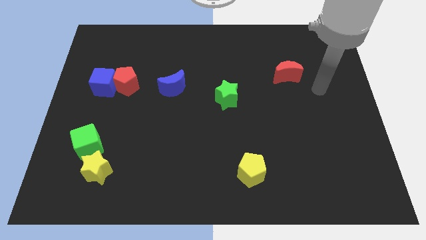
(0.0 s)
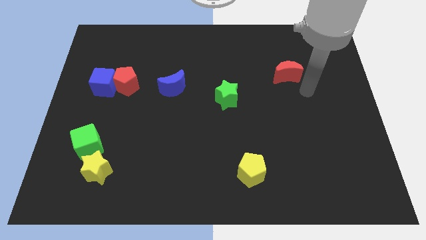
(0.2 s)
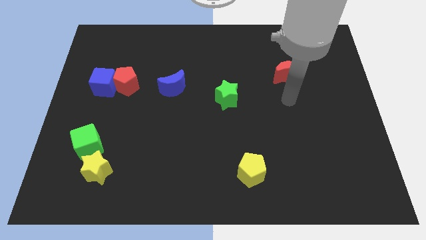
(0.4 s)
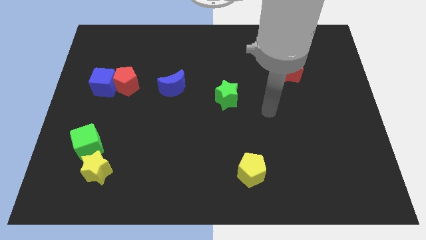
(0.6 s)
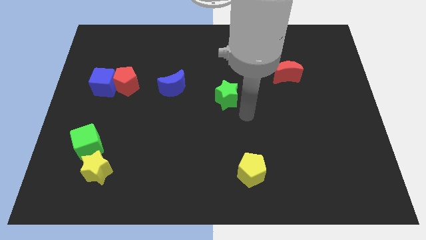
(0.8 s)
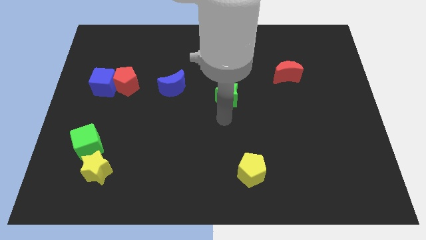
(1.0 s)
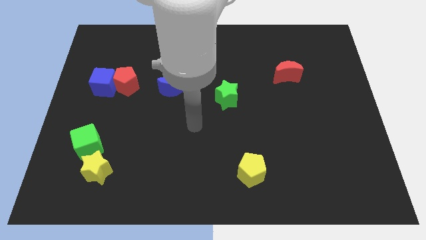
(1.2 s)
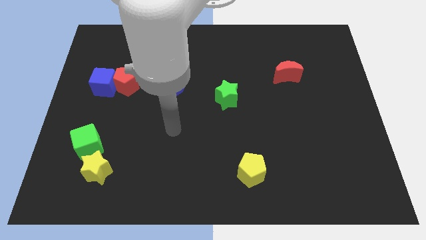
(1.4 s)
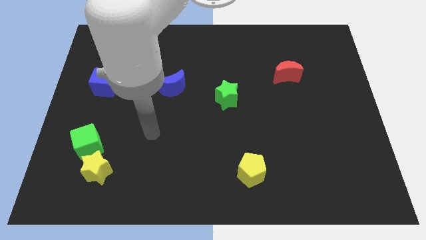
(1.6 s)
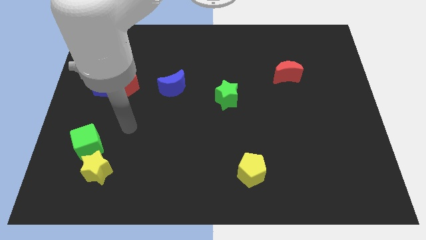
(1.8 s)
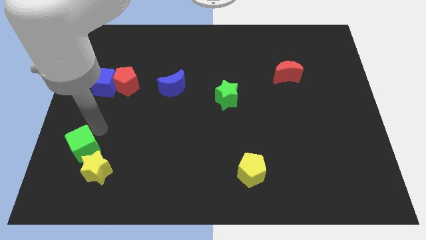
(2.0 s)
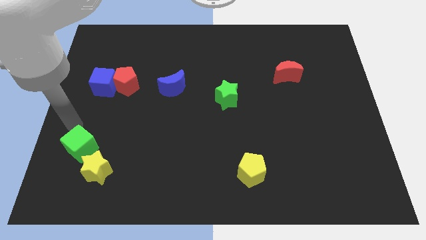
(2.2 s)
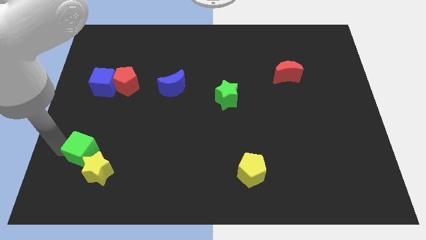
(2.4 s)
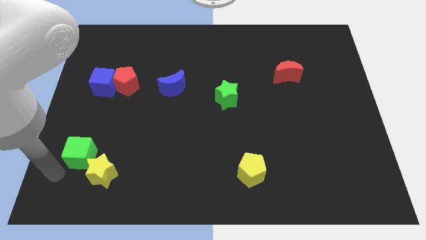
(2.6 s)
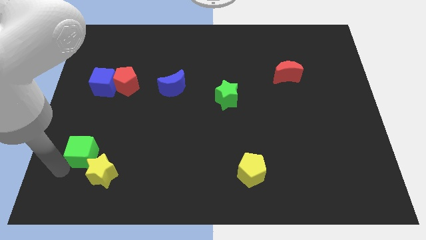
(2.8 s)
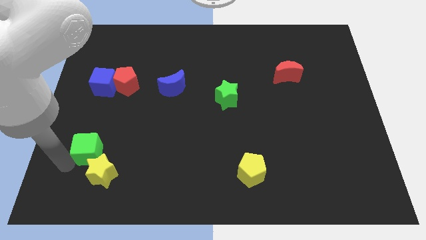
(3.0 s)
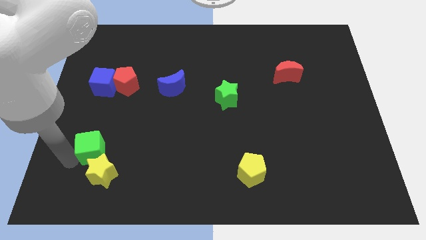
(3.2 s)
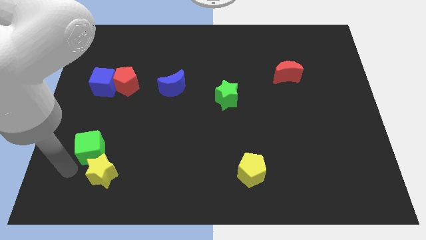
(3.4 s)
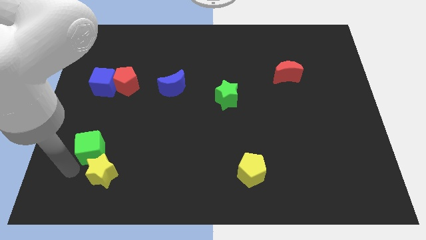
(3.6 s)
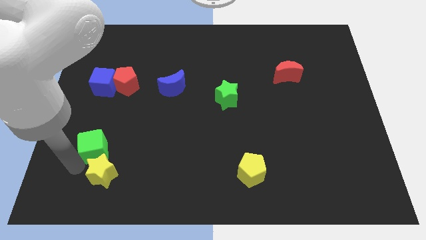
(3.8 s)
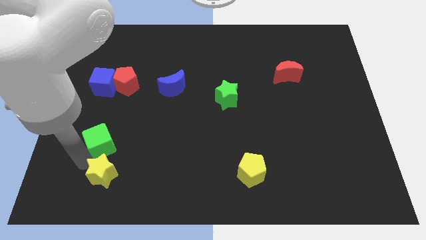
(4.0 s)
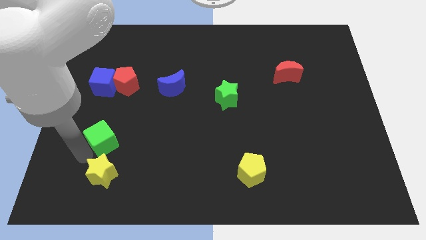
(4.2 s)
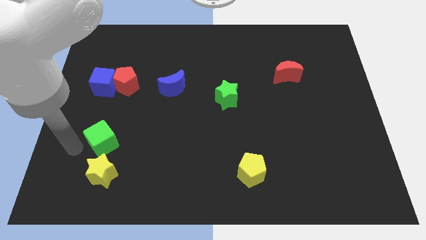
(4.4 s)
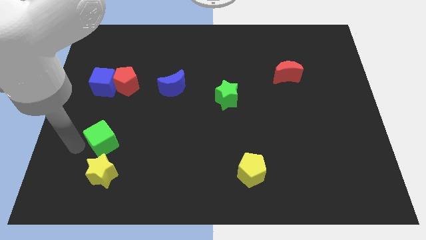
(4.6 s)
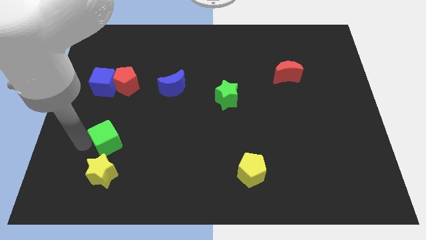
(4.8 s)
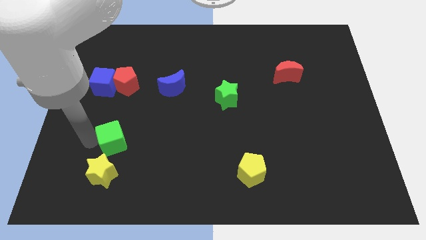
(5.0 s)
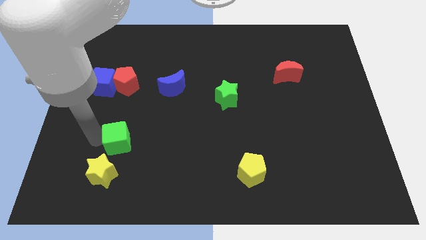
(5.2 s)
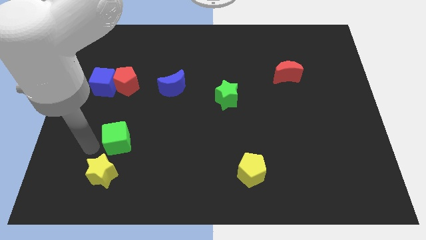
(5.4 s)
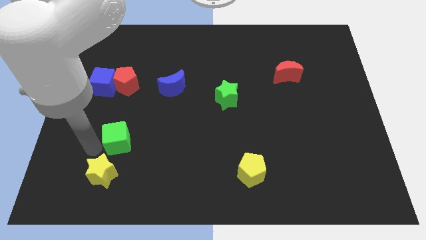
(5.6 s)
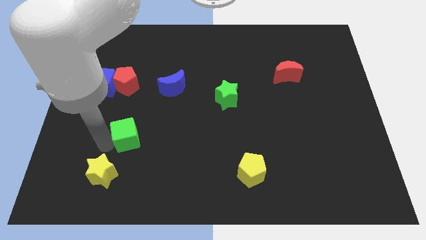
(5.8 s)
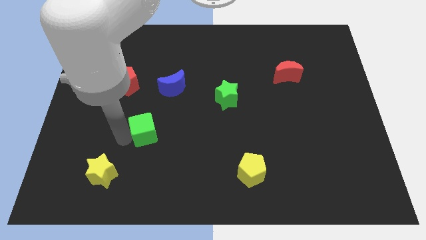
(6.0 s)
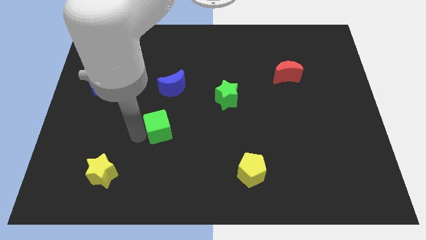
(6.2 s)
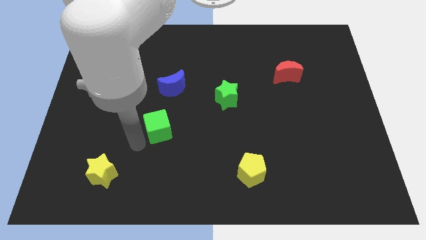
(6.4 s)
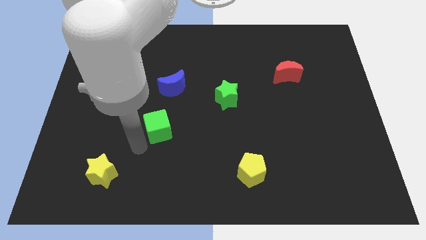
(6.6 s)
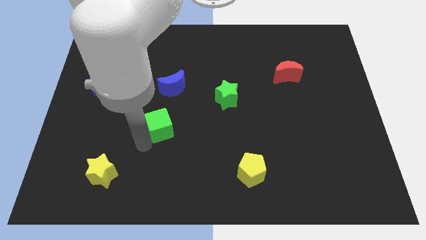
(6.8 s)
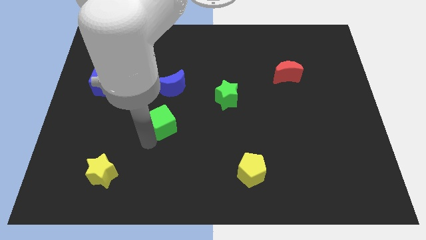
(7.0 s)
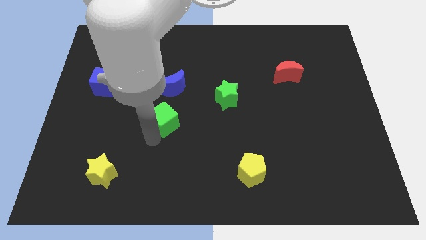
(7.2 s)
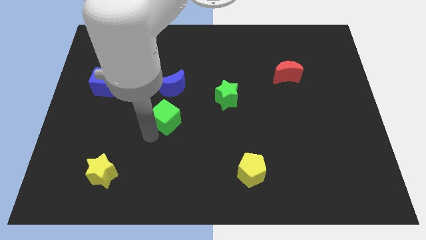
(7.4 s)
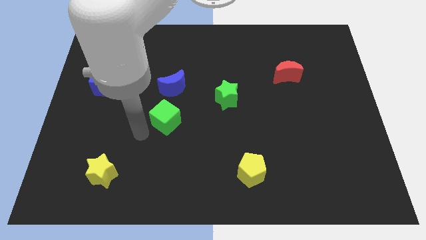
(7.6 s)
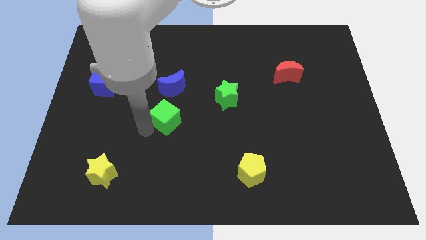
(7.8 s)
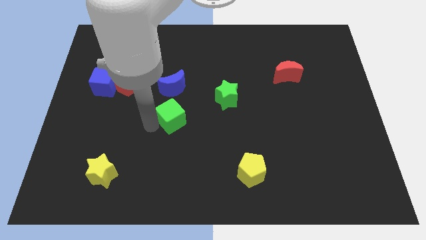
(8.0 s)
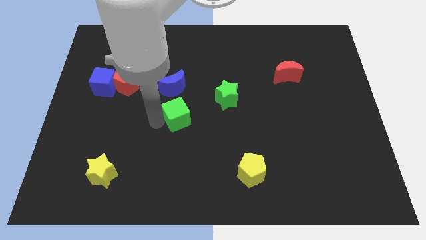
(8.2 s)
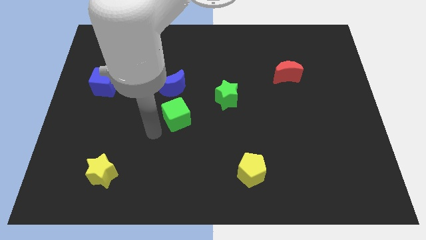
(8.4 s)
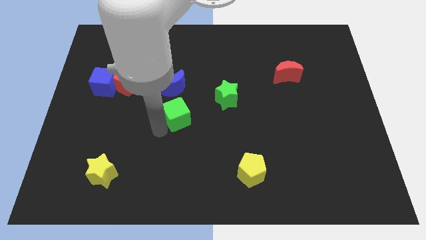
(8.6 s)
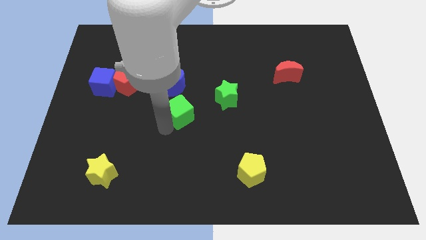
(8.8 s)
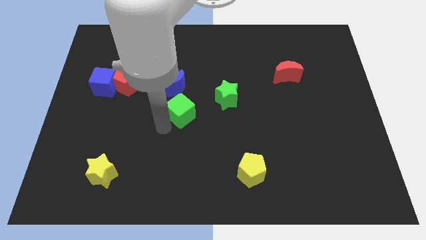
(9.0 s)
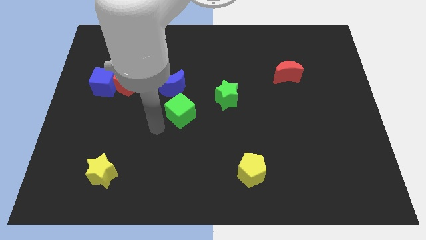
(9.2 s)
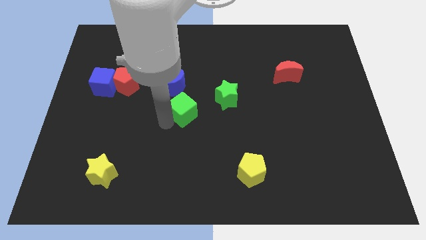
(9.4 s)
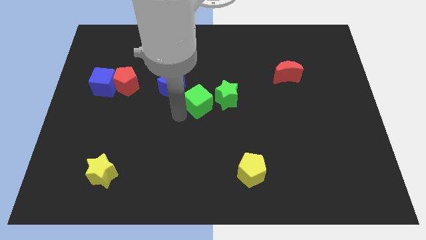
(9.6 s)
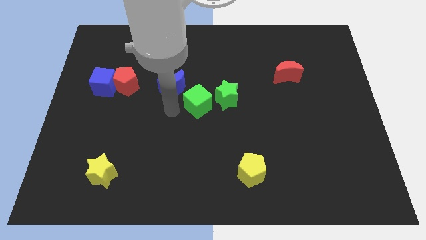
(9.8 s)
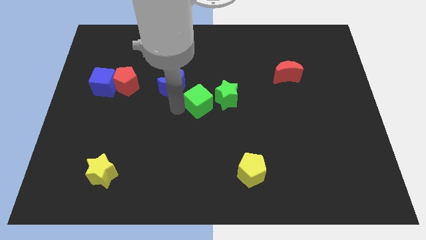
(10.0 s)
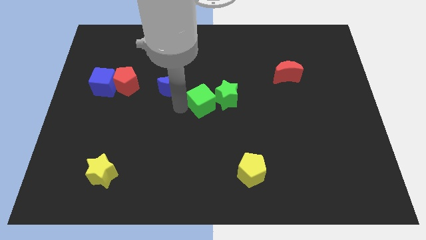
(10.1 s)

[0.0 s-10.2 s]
move the green cube to the green star

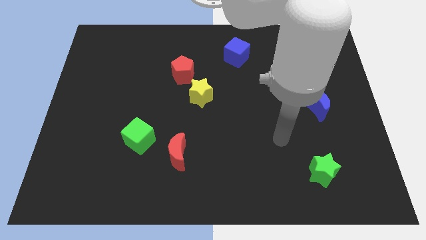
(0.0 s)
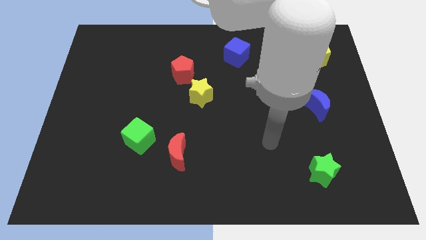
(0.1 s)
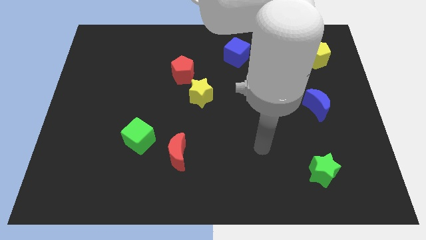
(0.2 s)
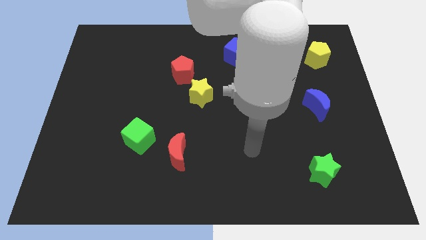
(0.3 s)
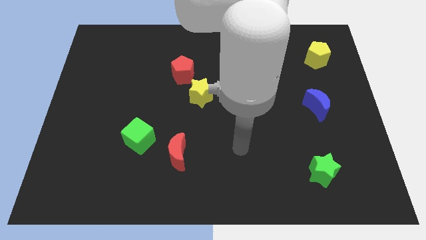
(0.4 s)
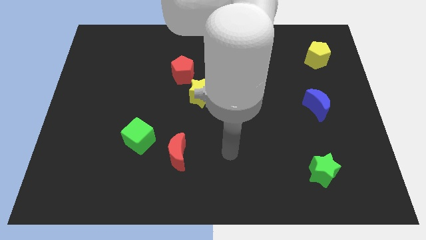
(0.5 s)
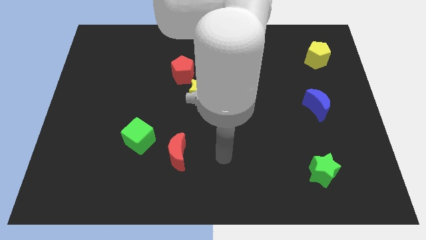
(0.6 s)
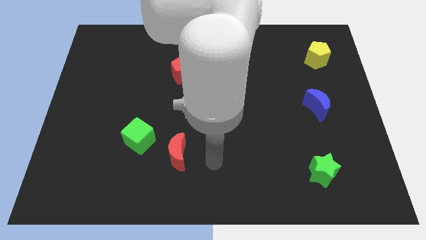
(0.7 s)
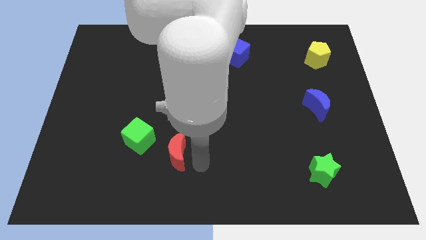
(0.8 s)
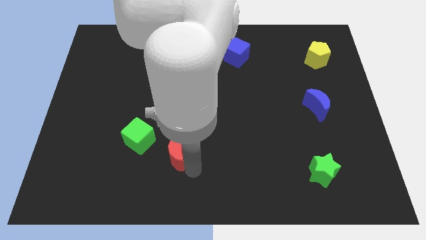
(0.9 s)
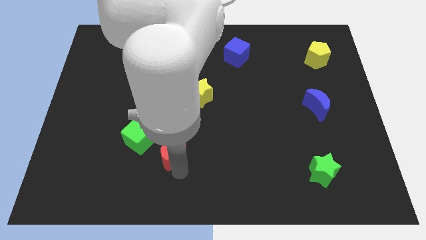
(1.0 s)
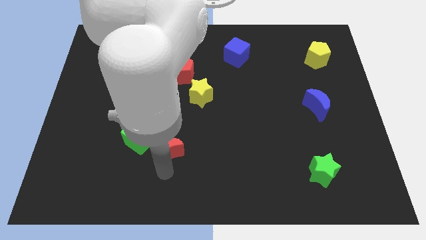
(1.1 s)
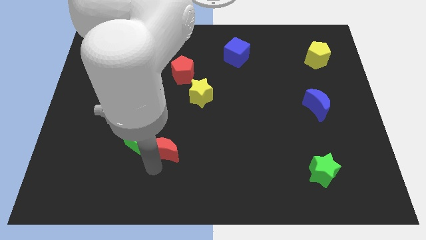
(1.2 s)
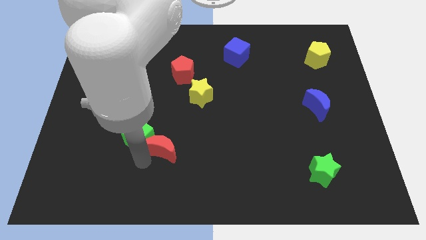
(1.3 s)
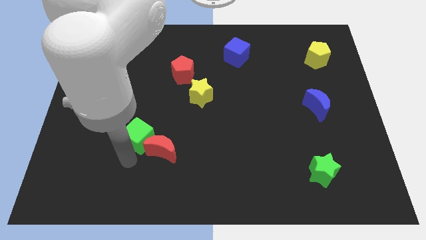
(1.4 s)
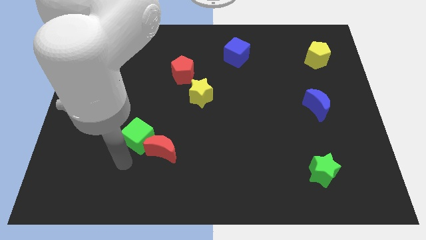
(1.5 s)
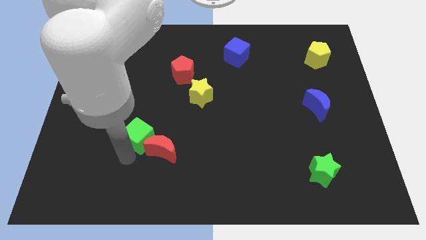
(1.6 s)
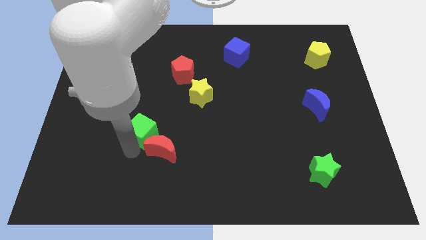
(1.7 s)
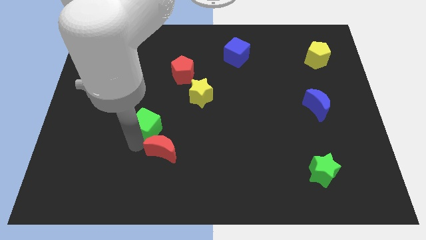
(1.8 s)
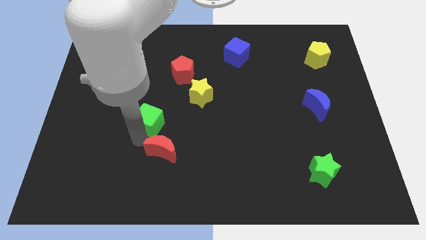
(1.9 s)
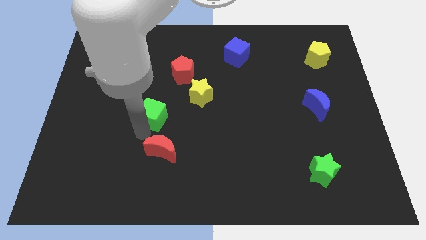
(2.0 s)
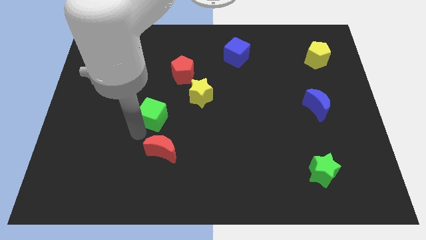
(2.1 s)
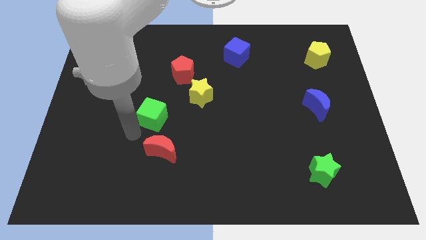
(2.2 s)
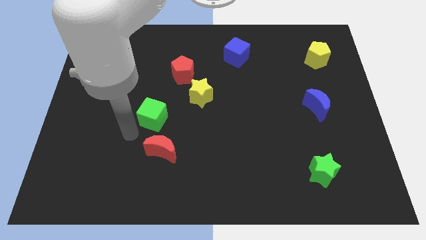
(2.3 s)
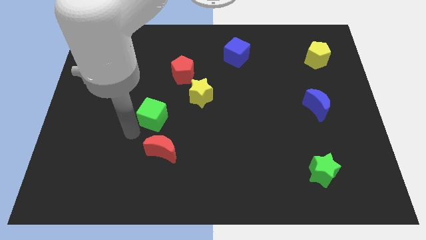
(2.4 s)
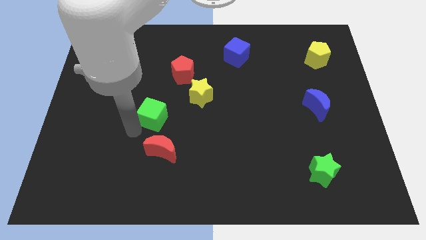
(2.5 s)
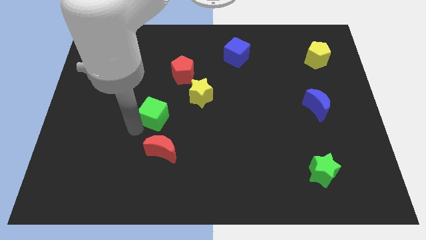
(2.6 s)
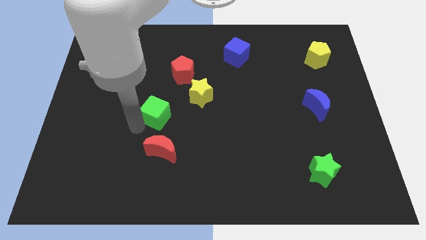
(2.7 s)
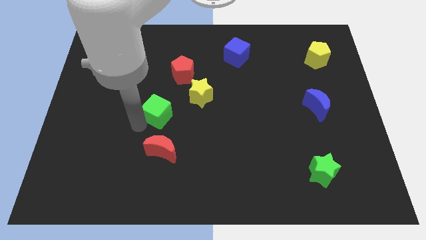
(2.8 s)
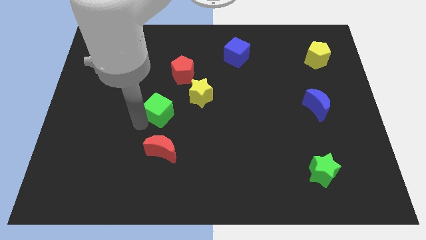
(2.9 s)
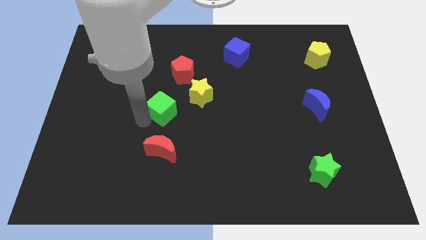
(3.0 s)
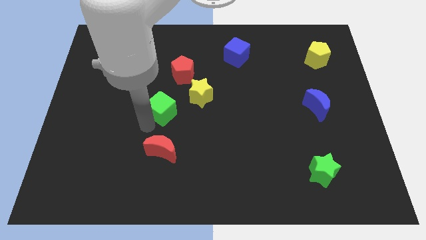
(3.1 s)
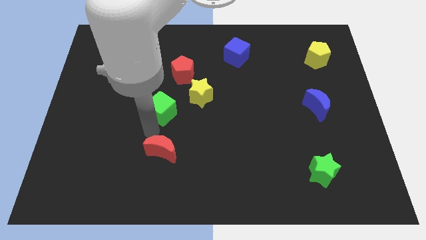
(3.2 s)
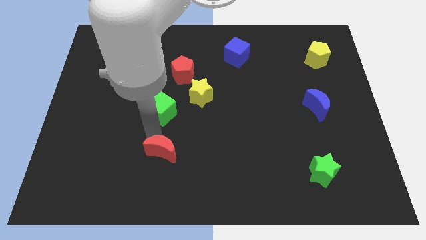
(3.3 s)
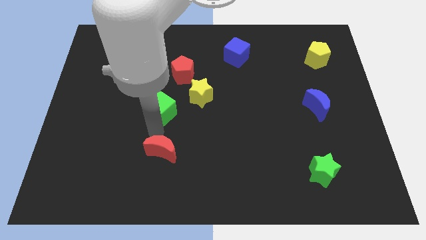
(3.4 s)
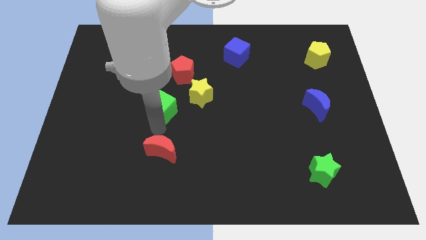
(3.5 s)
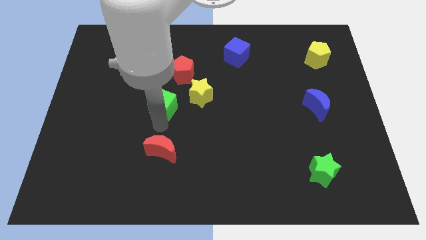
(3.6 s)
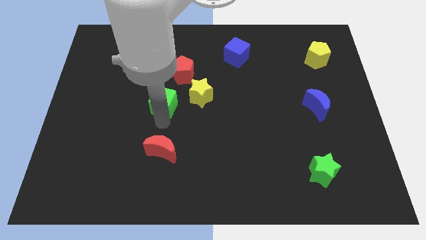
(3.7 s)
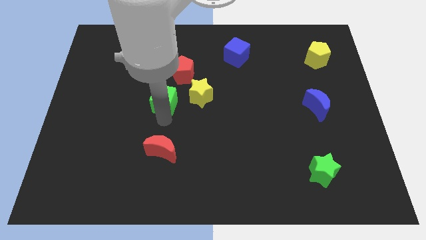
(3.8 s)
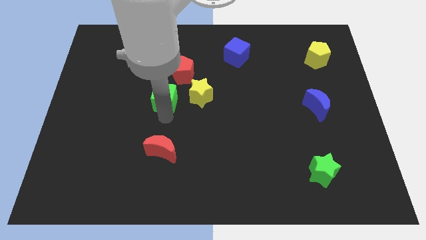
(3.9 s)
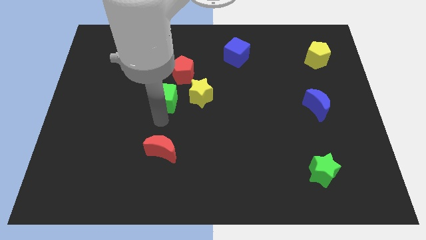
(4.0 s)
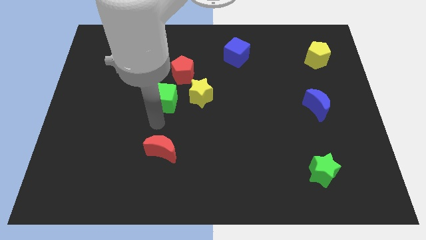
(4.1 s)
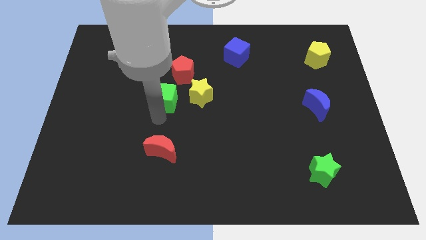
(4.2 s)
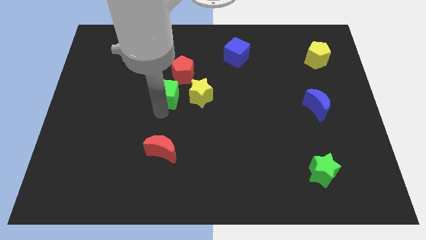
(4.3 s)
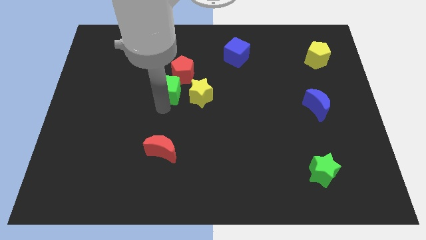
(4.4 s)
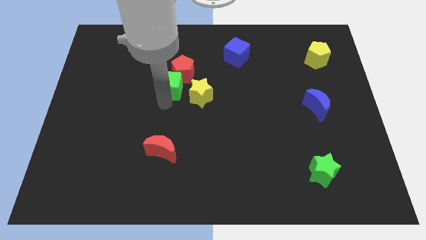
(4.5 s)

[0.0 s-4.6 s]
slide the green cube towards the red pentagon
